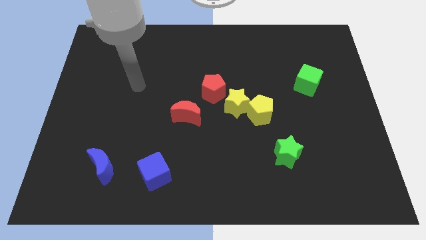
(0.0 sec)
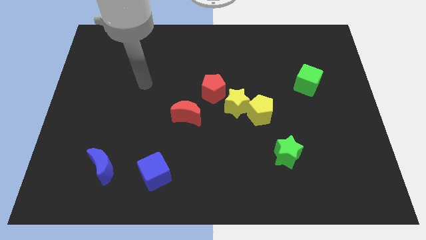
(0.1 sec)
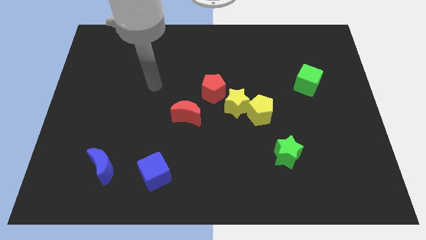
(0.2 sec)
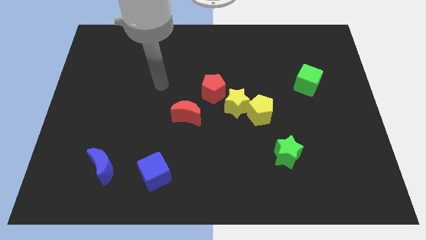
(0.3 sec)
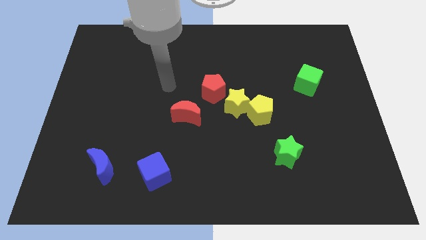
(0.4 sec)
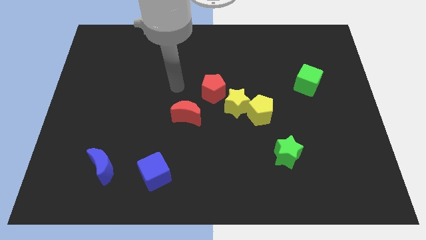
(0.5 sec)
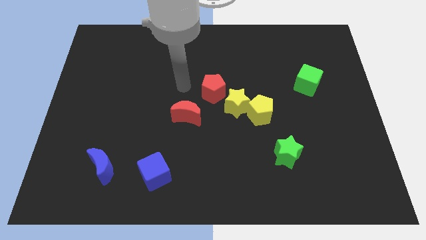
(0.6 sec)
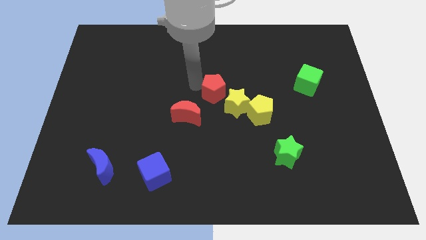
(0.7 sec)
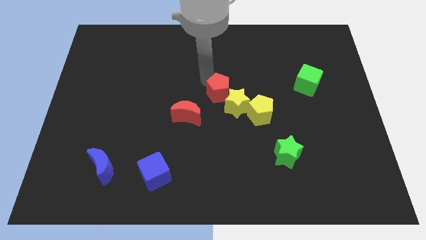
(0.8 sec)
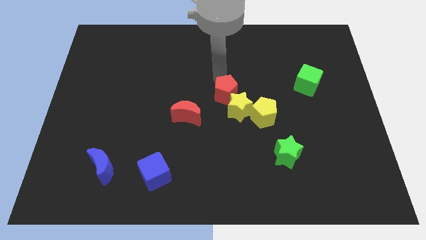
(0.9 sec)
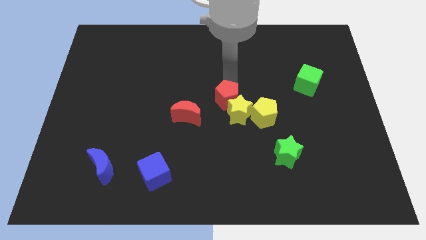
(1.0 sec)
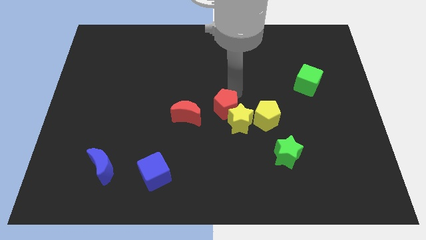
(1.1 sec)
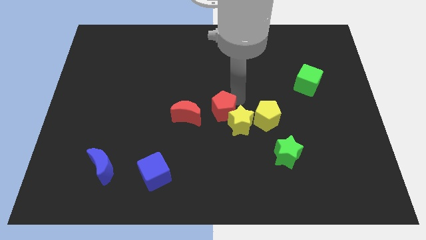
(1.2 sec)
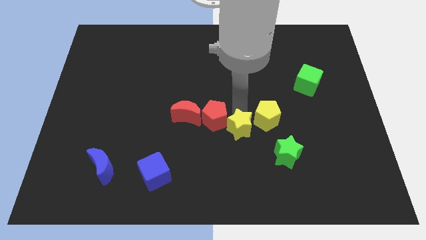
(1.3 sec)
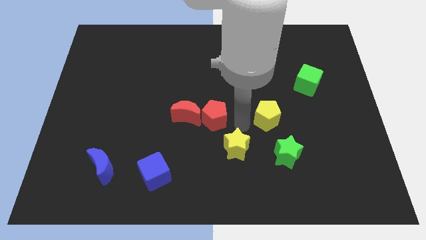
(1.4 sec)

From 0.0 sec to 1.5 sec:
move the yellow pentagon away from the yellow star

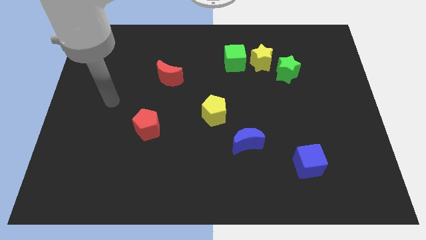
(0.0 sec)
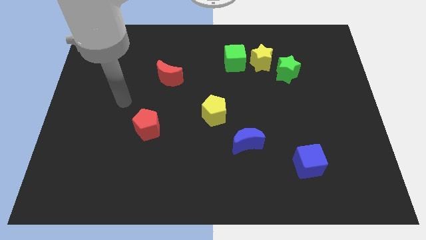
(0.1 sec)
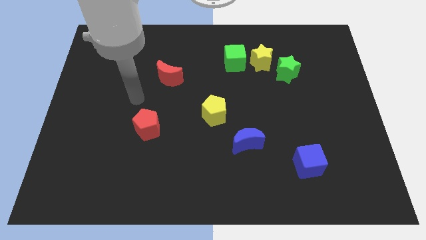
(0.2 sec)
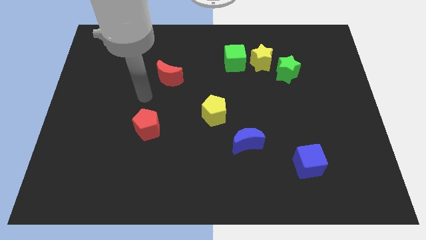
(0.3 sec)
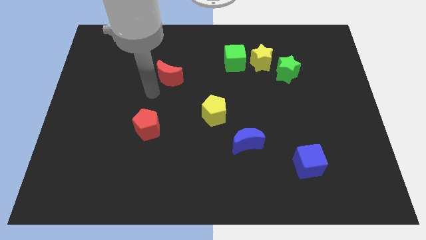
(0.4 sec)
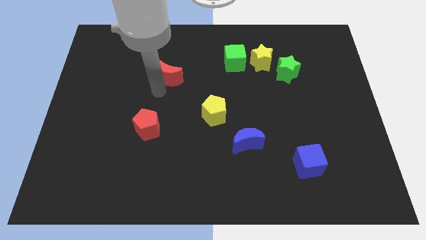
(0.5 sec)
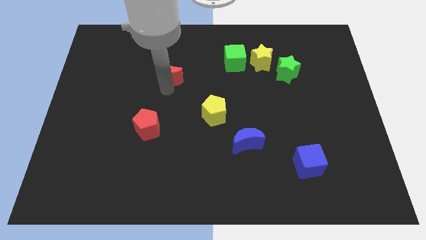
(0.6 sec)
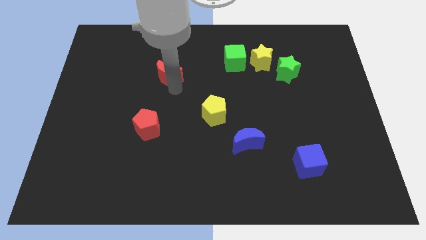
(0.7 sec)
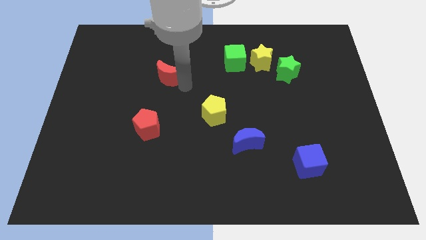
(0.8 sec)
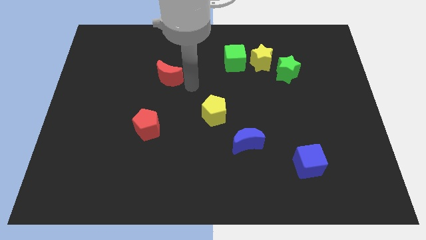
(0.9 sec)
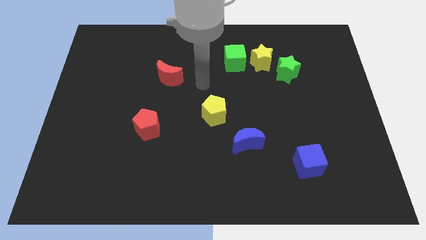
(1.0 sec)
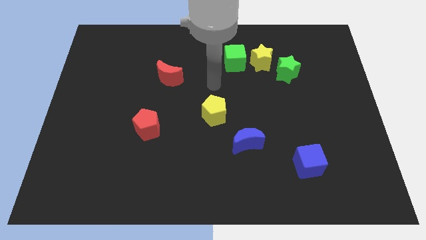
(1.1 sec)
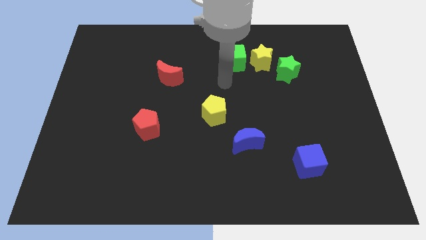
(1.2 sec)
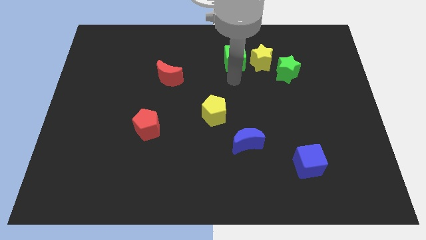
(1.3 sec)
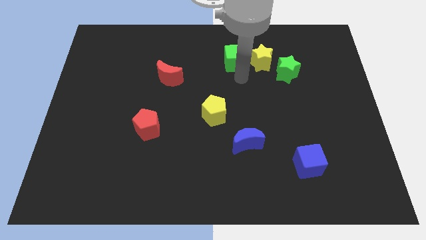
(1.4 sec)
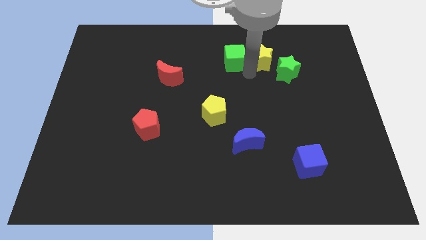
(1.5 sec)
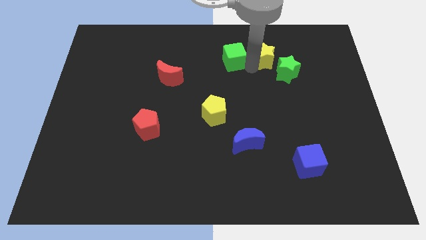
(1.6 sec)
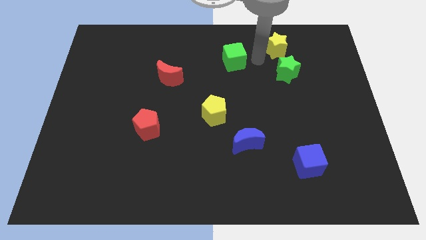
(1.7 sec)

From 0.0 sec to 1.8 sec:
separate the green cube from the yellow star

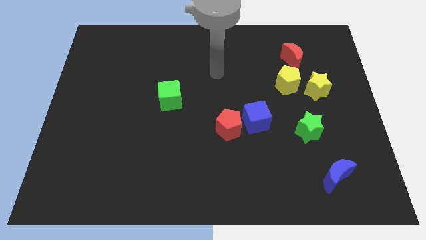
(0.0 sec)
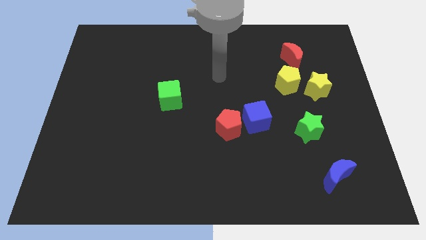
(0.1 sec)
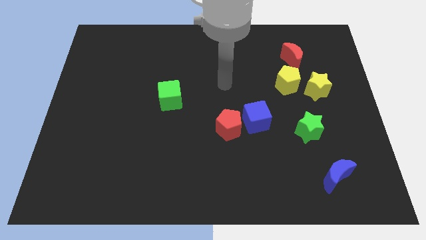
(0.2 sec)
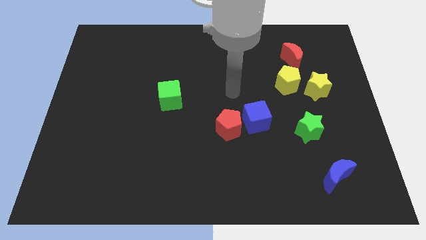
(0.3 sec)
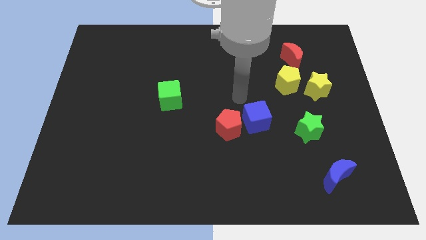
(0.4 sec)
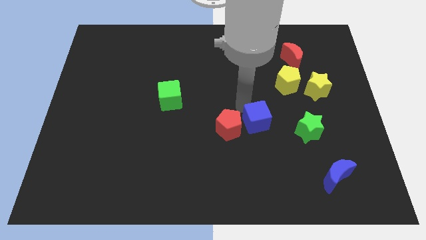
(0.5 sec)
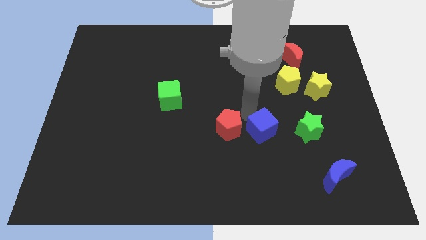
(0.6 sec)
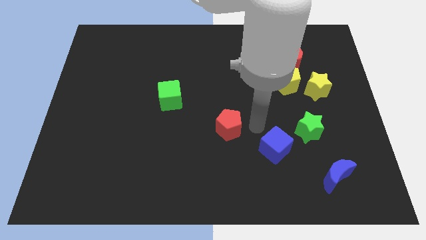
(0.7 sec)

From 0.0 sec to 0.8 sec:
move the red pentagon away from the blue cube

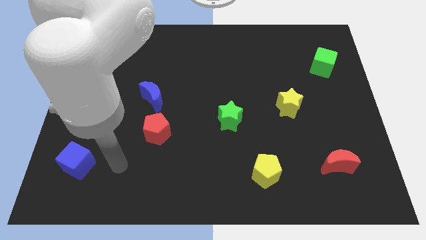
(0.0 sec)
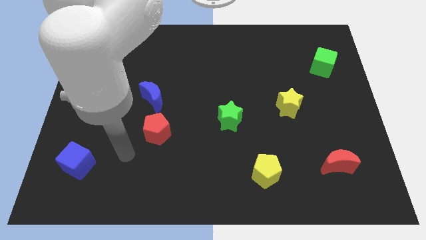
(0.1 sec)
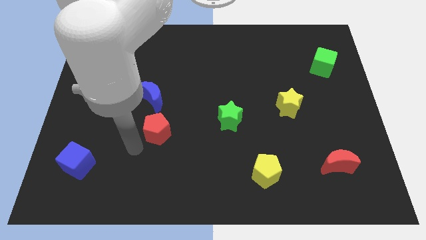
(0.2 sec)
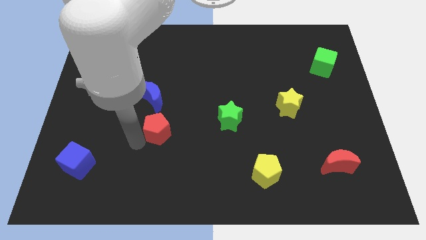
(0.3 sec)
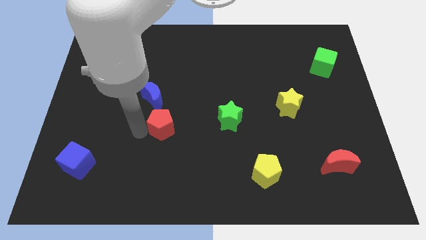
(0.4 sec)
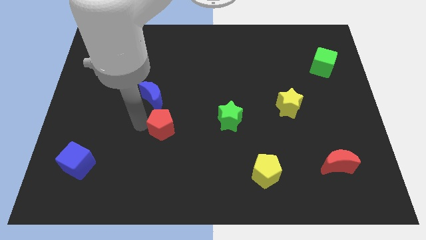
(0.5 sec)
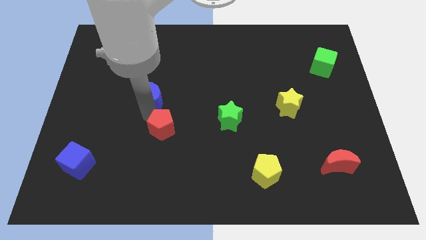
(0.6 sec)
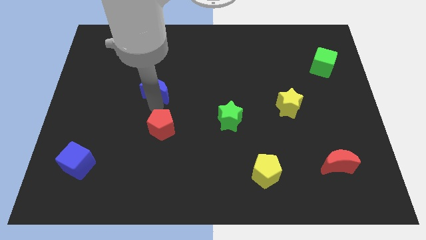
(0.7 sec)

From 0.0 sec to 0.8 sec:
separate the red pentagon from the blue moon

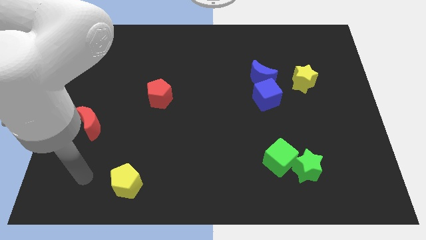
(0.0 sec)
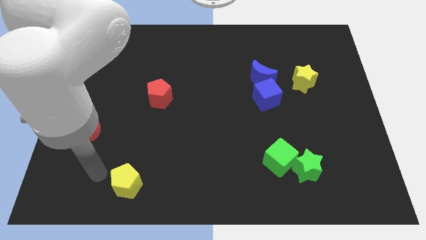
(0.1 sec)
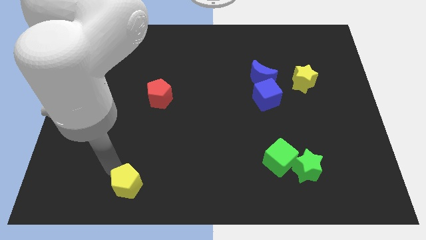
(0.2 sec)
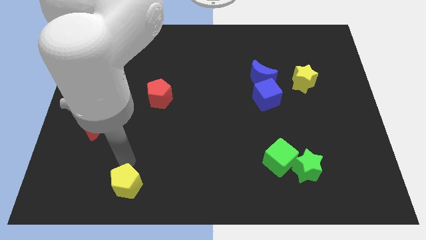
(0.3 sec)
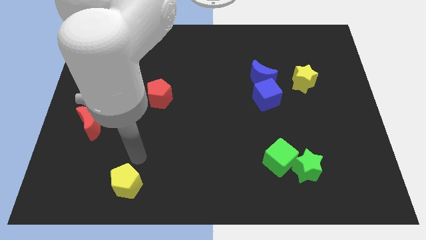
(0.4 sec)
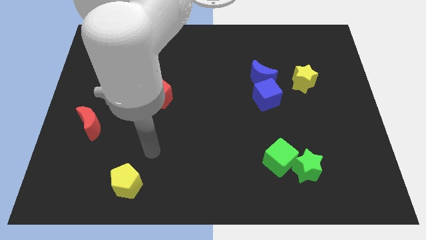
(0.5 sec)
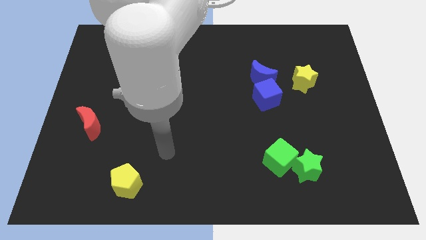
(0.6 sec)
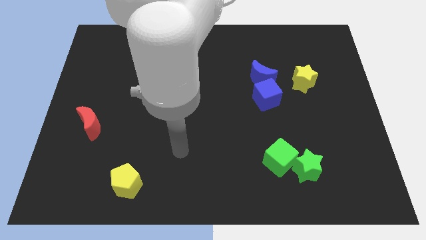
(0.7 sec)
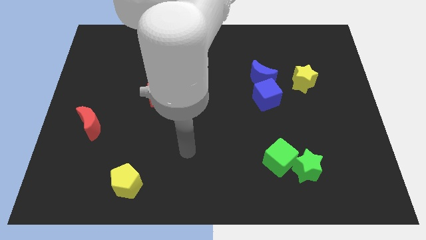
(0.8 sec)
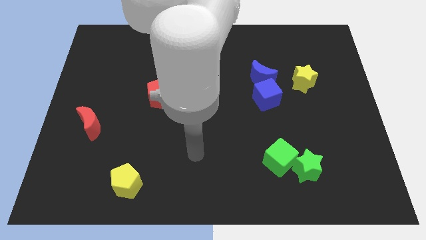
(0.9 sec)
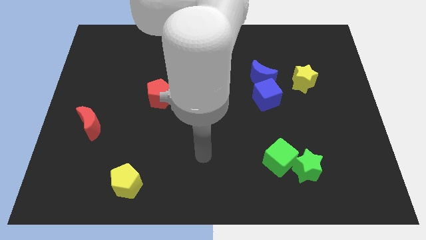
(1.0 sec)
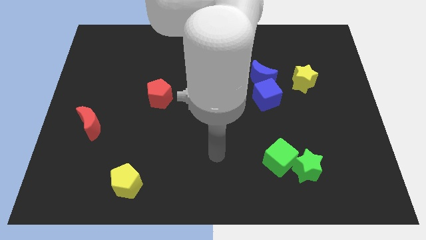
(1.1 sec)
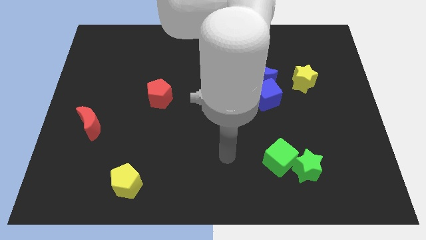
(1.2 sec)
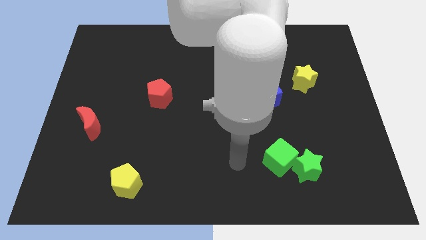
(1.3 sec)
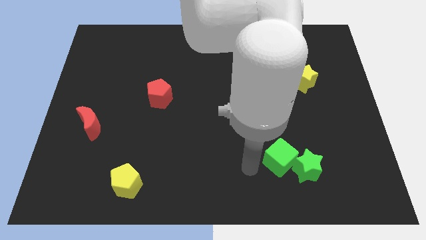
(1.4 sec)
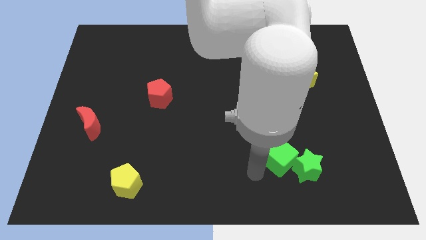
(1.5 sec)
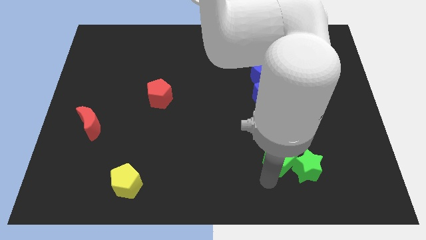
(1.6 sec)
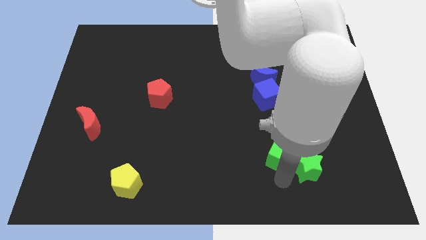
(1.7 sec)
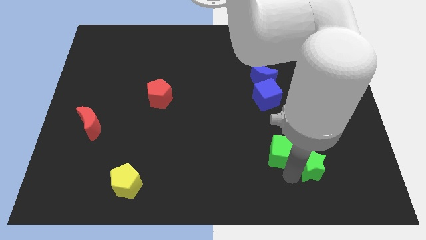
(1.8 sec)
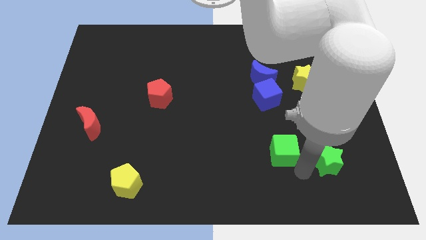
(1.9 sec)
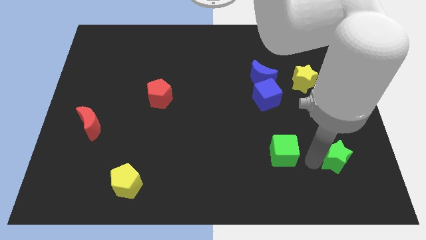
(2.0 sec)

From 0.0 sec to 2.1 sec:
move the green cube away from the green star

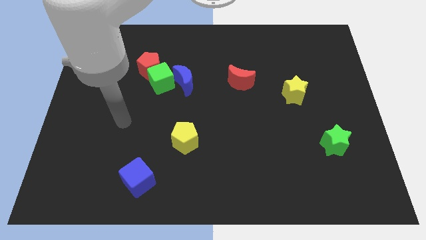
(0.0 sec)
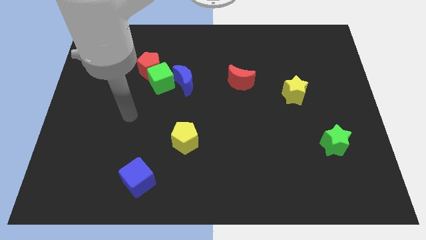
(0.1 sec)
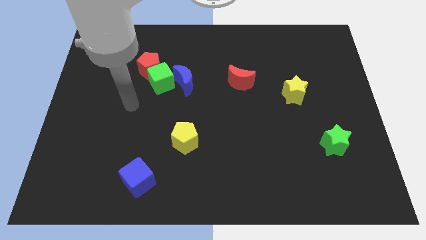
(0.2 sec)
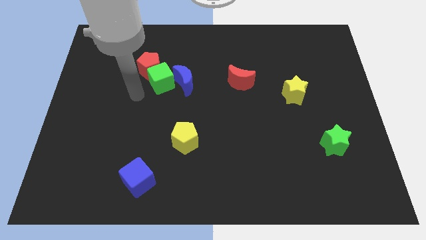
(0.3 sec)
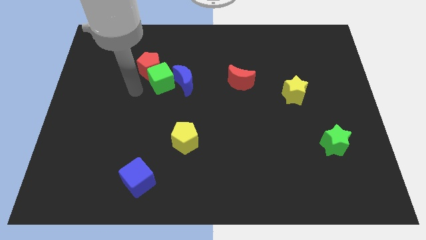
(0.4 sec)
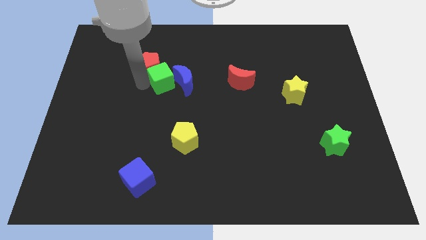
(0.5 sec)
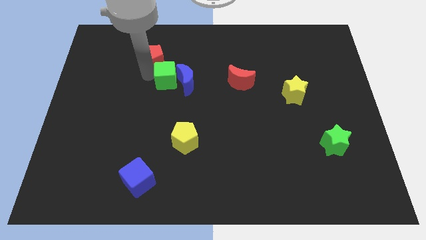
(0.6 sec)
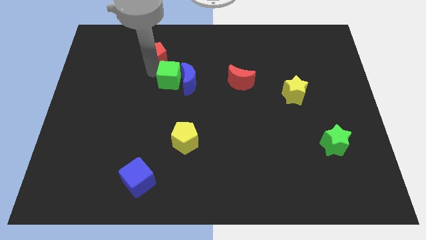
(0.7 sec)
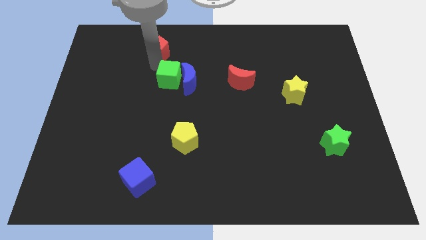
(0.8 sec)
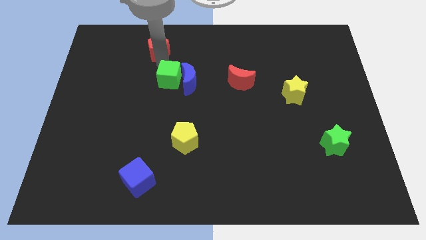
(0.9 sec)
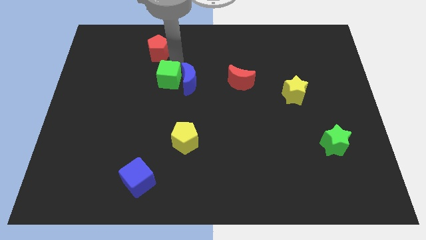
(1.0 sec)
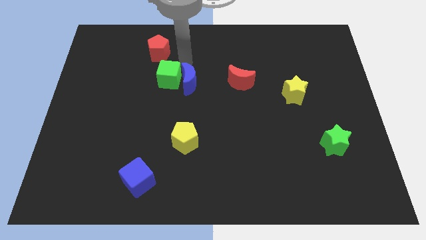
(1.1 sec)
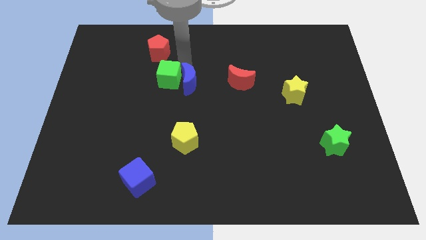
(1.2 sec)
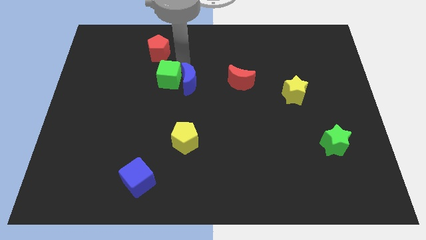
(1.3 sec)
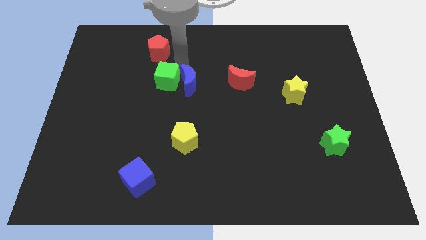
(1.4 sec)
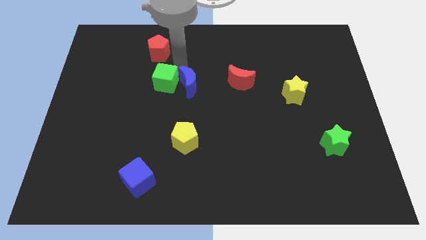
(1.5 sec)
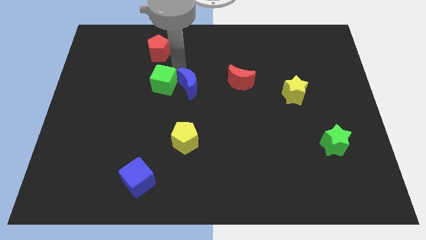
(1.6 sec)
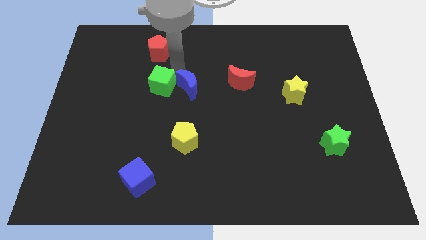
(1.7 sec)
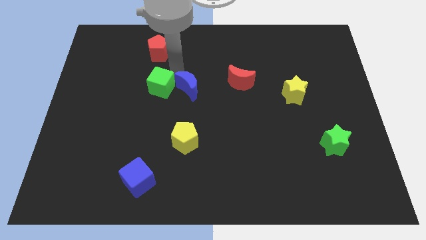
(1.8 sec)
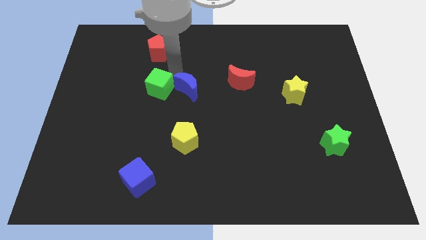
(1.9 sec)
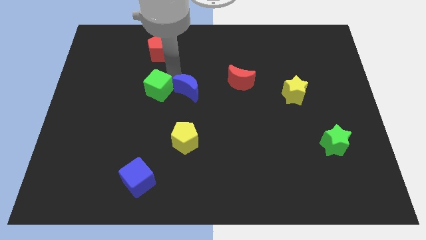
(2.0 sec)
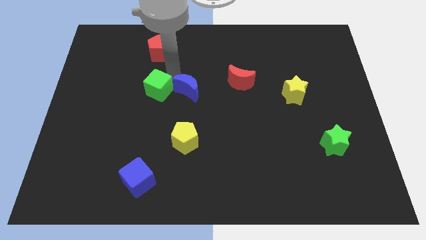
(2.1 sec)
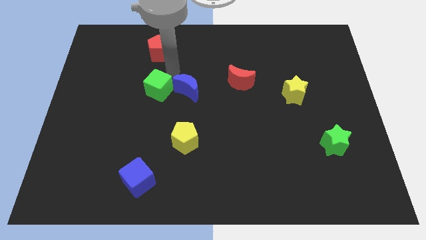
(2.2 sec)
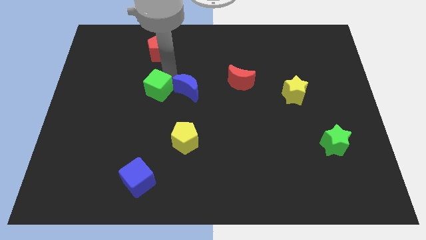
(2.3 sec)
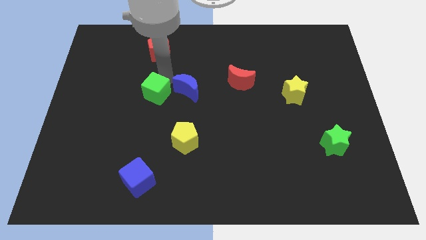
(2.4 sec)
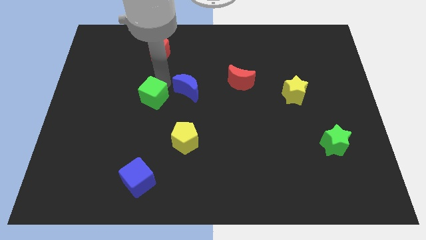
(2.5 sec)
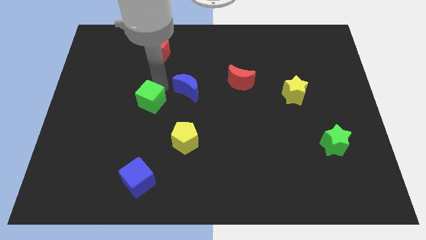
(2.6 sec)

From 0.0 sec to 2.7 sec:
pull the green cube apart from the red pentagon and blue moon
